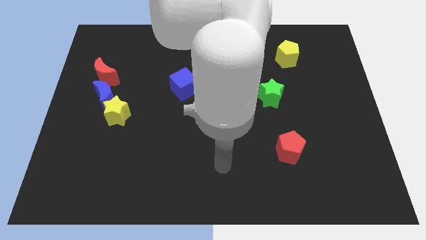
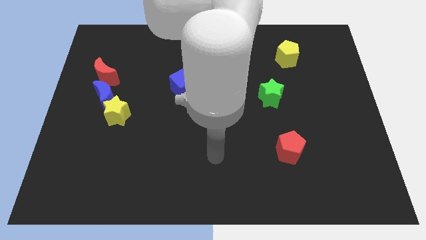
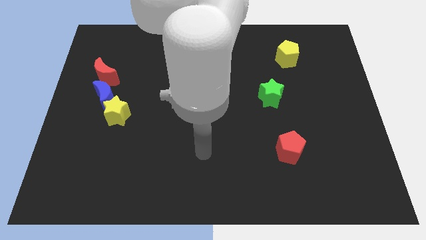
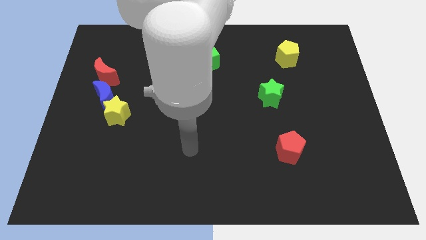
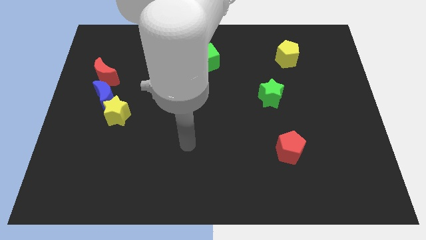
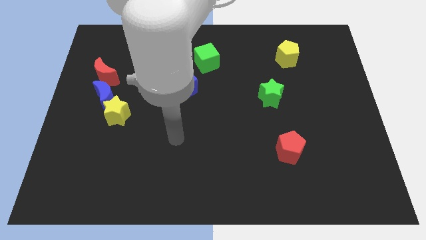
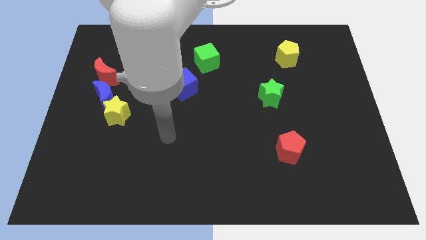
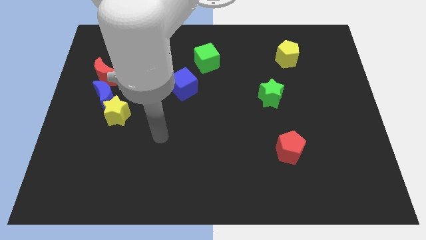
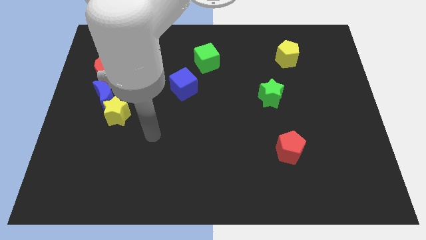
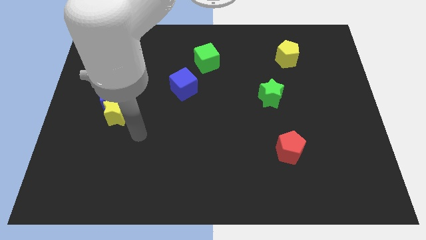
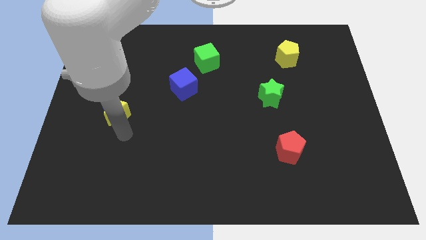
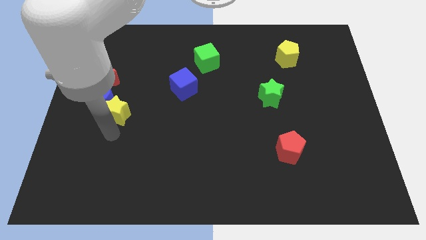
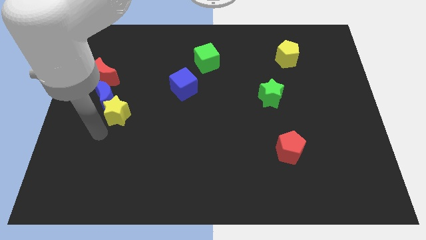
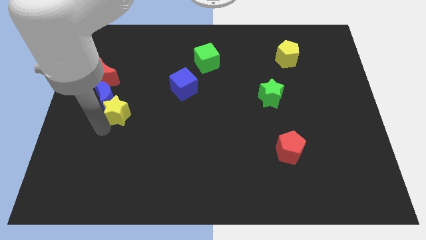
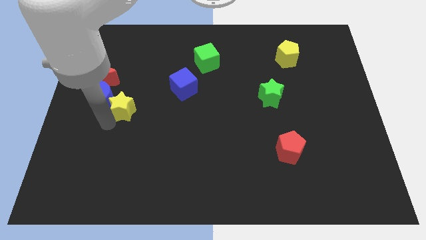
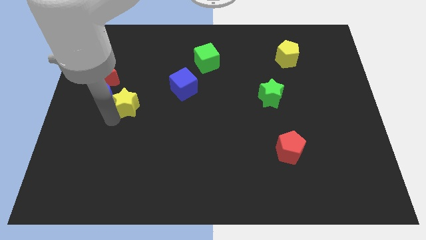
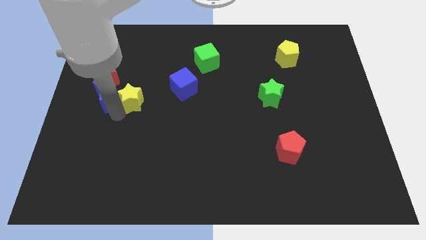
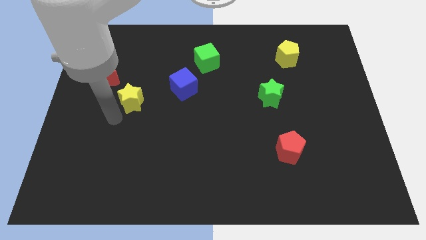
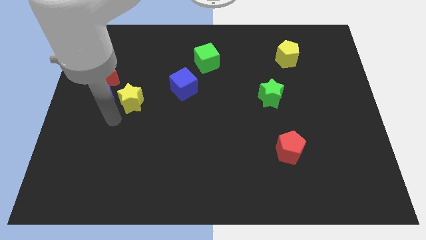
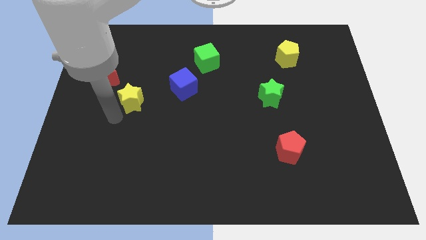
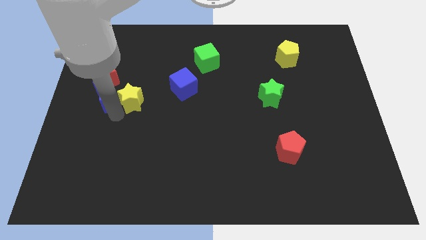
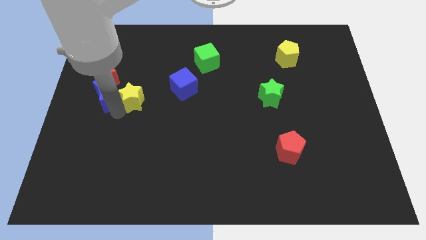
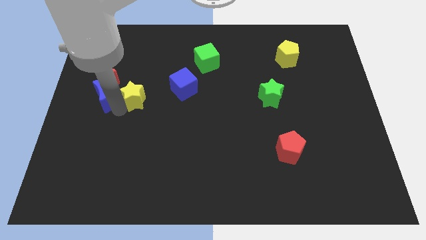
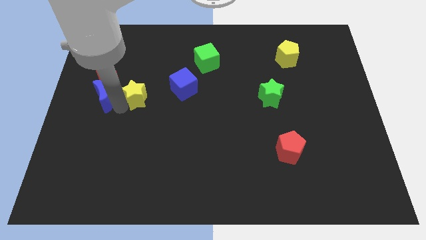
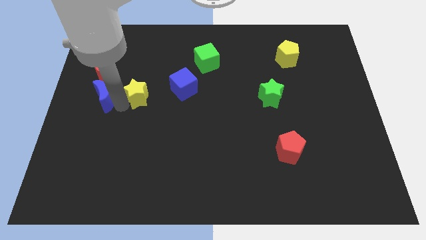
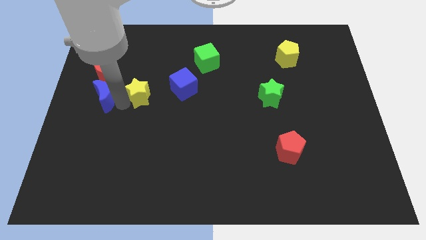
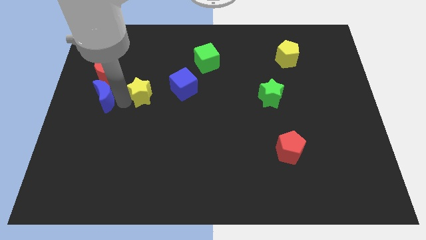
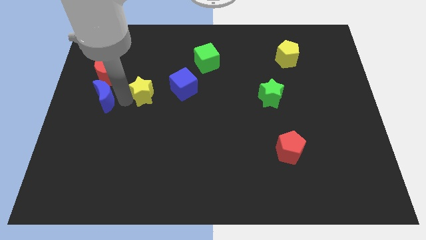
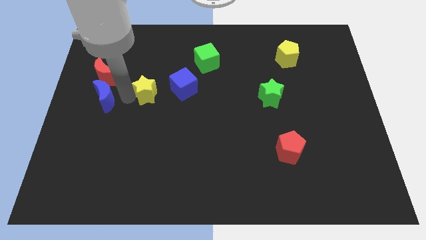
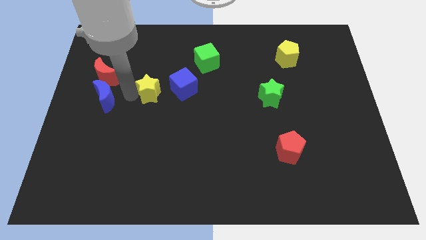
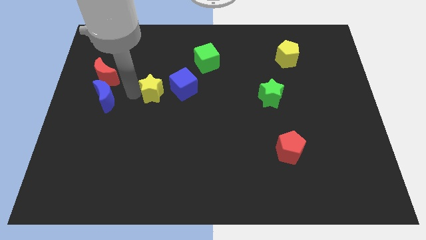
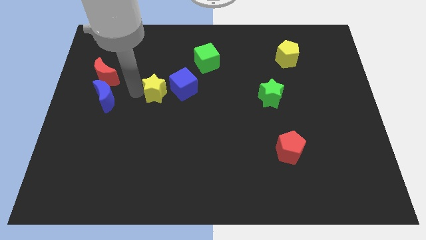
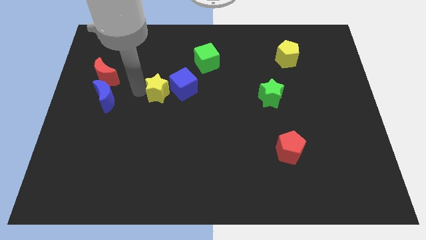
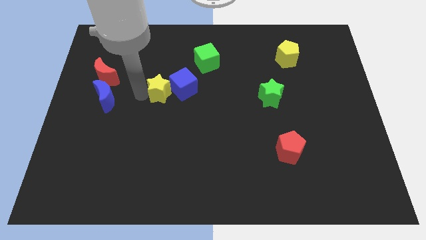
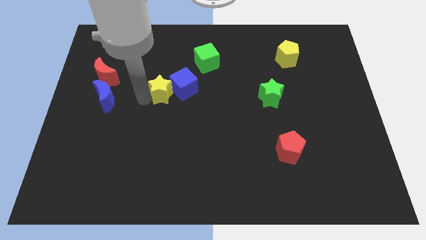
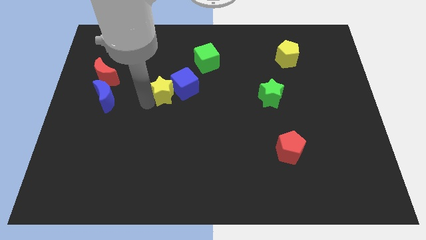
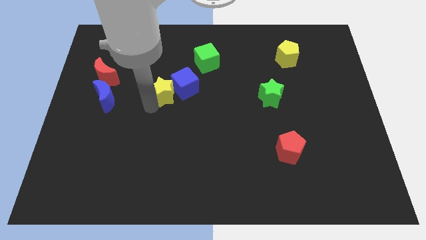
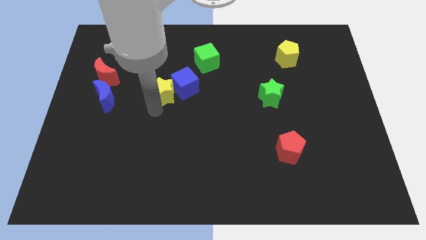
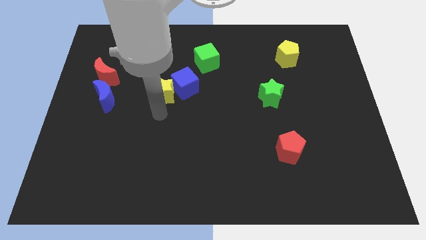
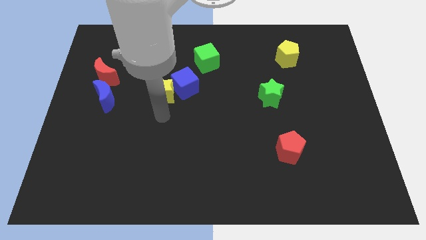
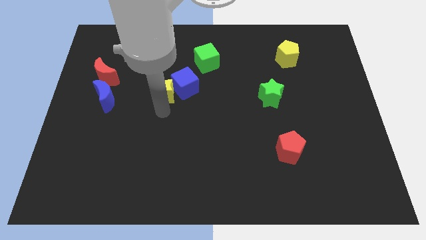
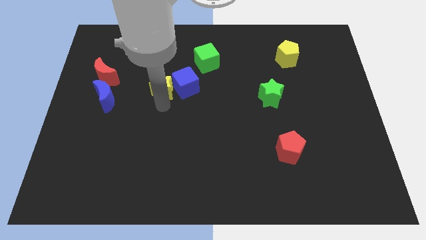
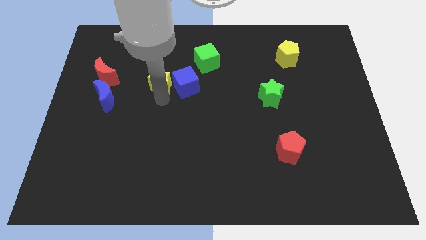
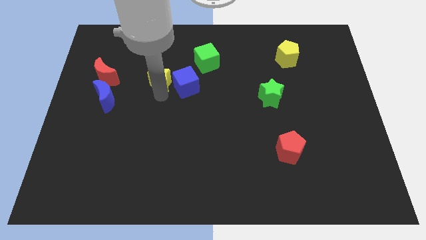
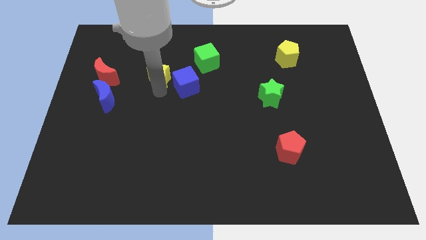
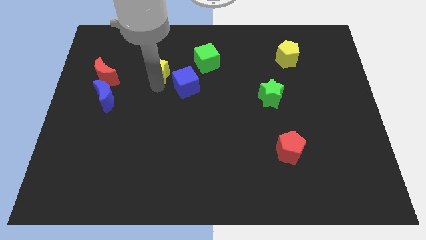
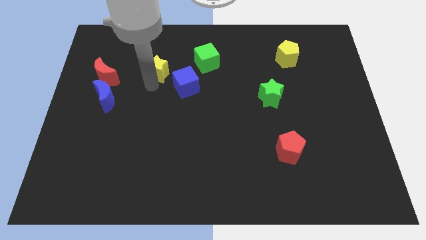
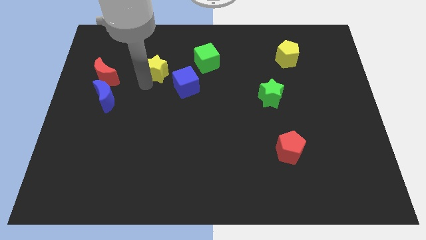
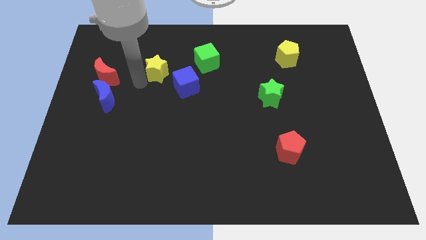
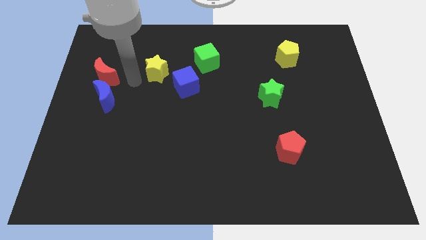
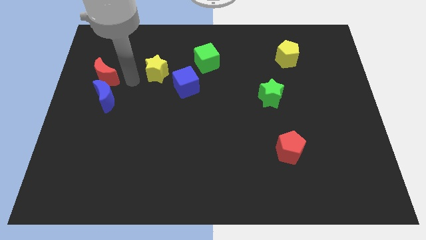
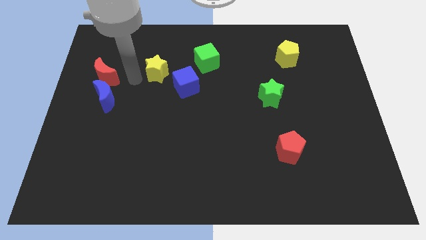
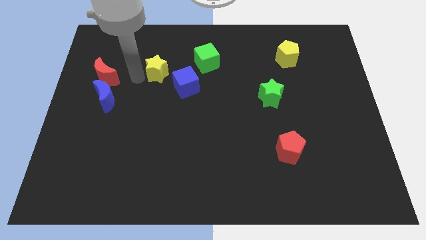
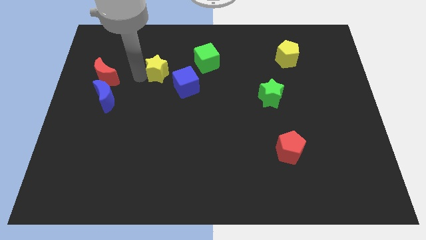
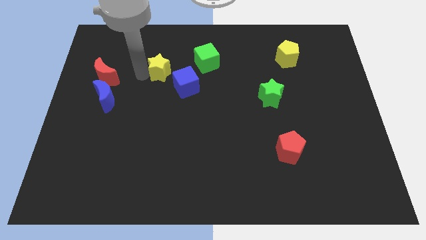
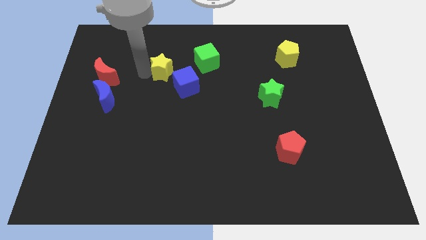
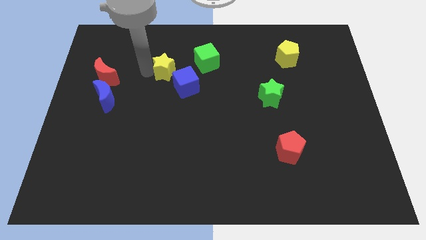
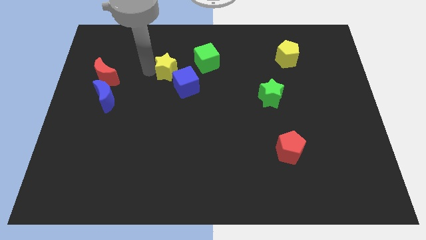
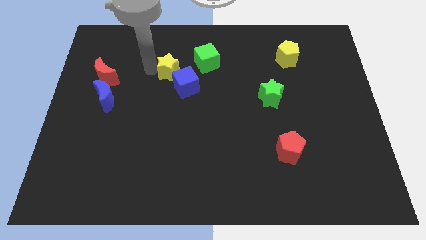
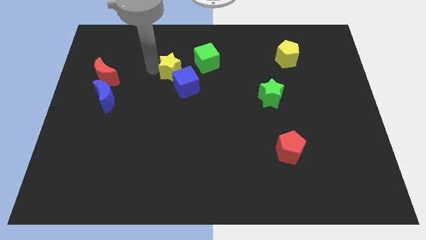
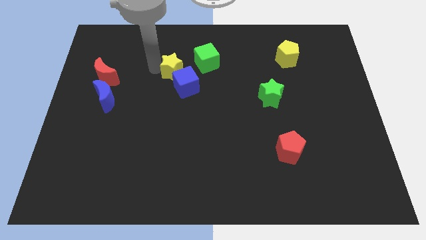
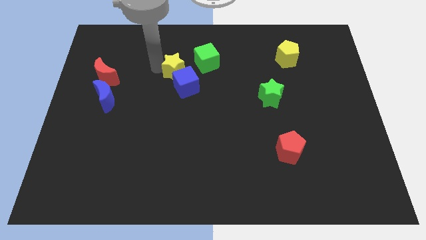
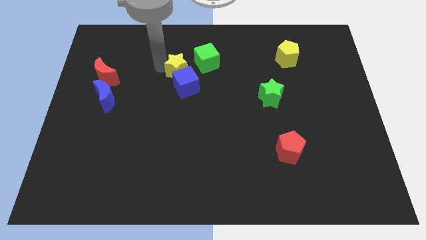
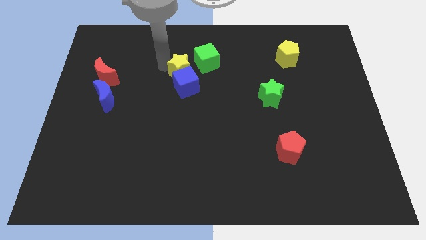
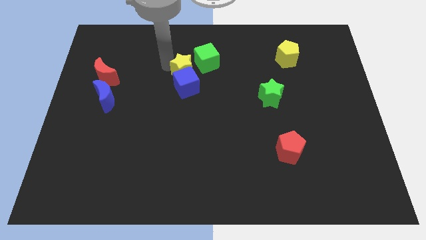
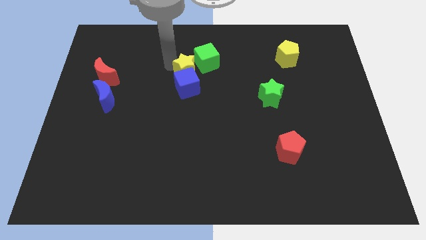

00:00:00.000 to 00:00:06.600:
slide the yellow star next to the green cube
